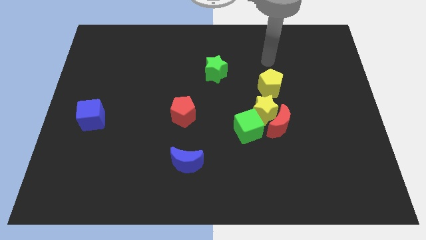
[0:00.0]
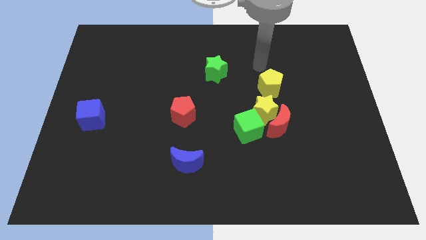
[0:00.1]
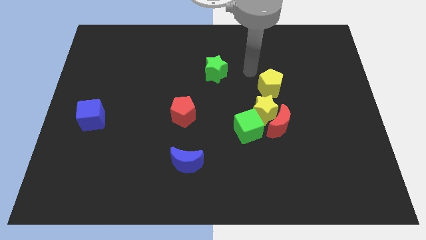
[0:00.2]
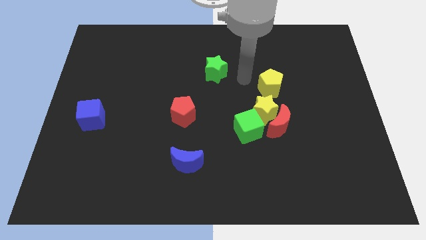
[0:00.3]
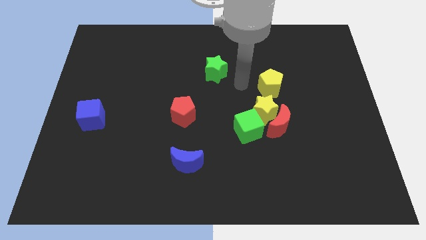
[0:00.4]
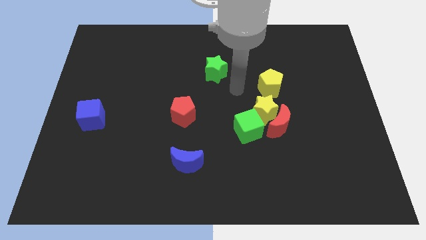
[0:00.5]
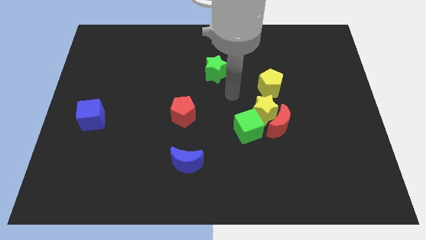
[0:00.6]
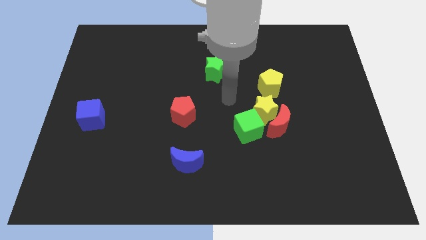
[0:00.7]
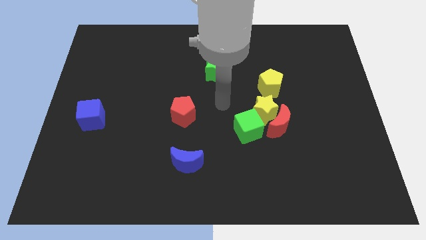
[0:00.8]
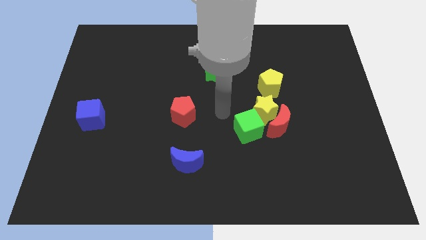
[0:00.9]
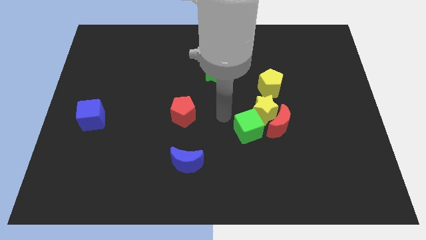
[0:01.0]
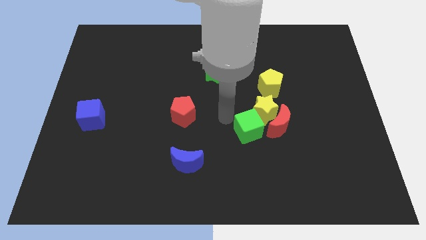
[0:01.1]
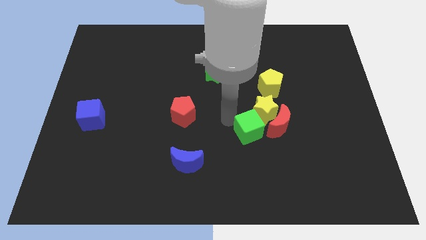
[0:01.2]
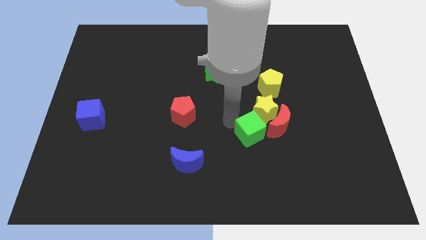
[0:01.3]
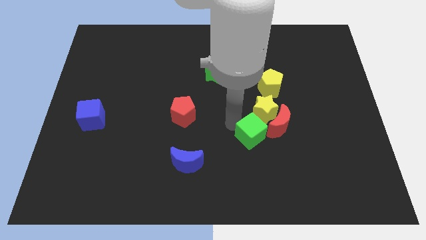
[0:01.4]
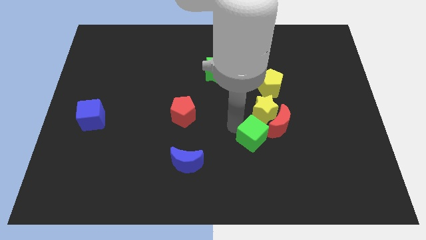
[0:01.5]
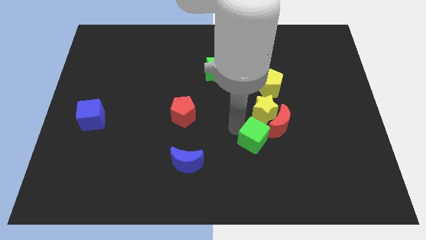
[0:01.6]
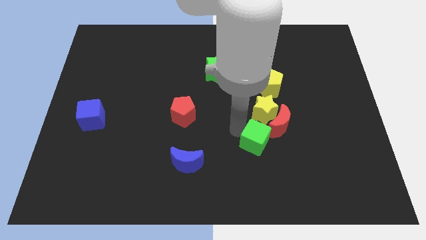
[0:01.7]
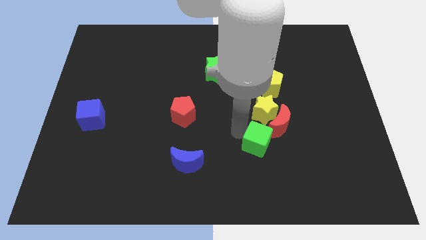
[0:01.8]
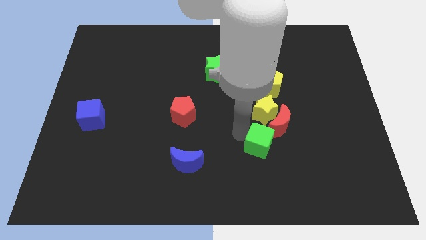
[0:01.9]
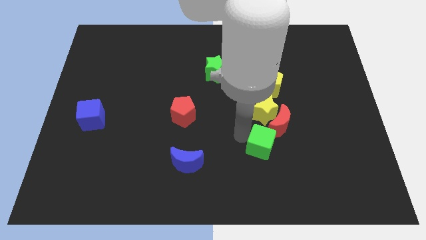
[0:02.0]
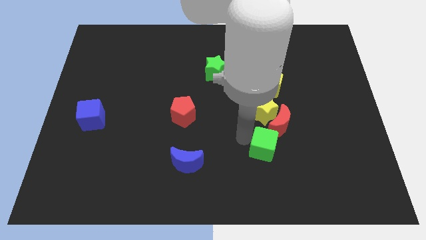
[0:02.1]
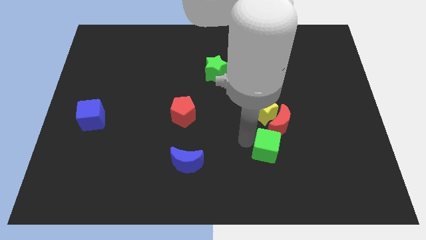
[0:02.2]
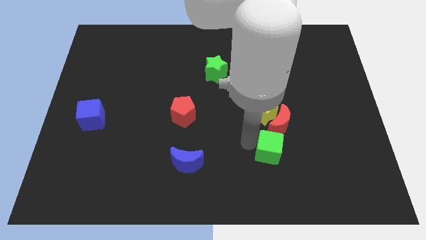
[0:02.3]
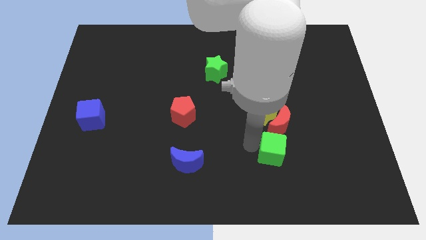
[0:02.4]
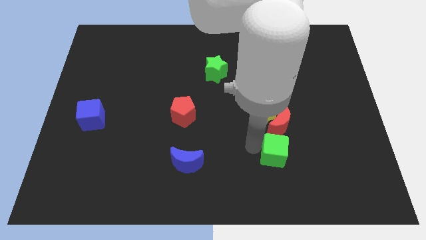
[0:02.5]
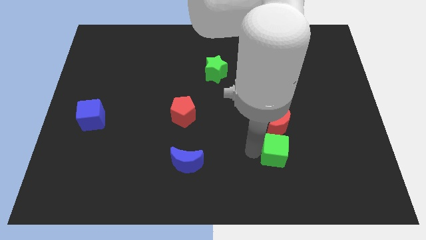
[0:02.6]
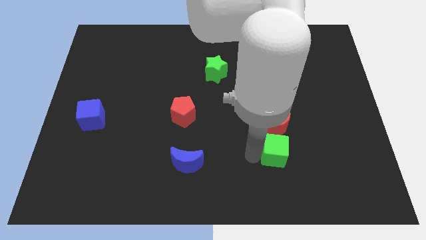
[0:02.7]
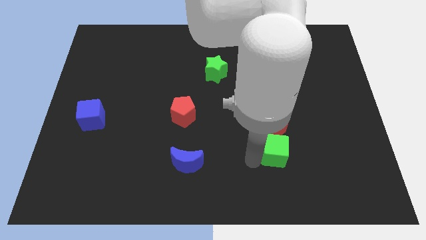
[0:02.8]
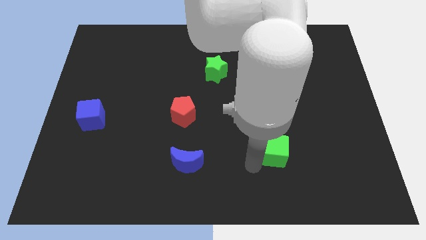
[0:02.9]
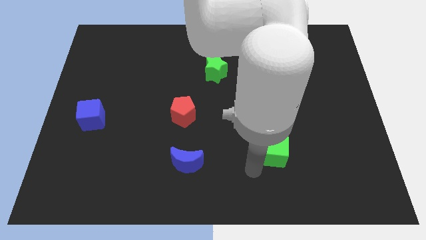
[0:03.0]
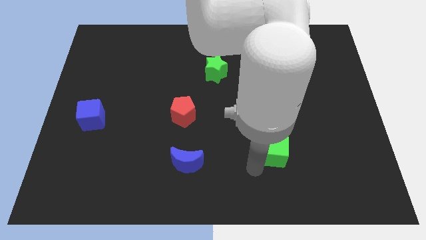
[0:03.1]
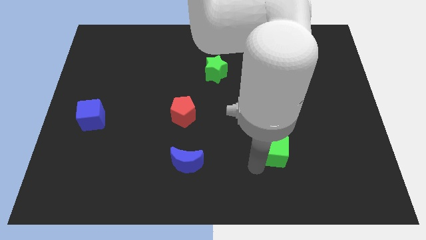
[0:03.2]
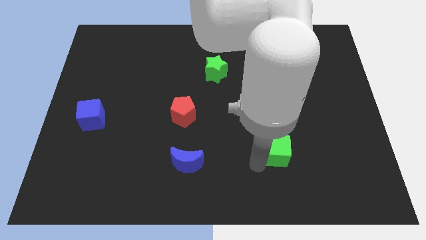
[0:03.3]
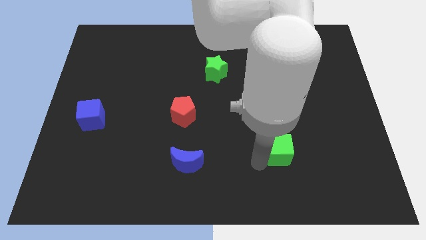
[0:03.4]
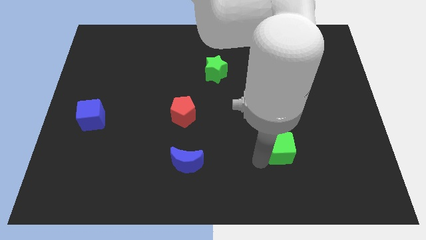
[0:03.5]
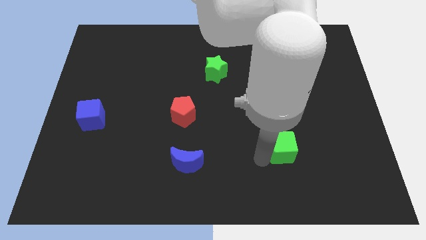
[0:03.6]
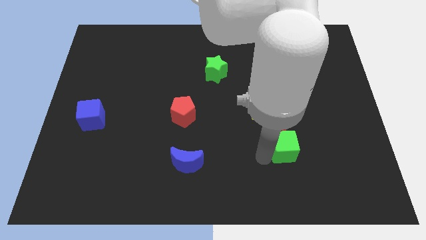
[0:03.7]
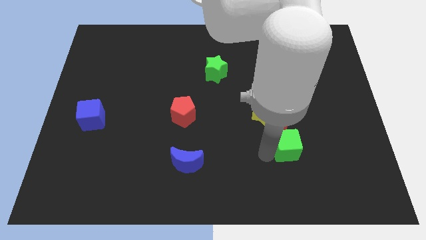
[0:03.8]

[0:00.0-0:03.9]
push the green cube right a little

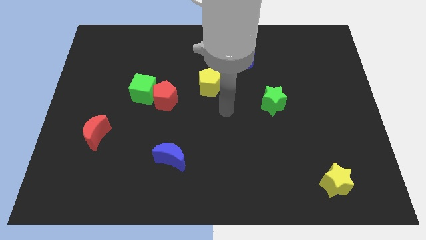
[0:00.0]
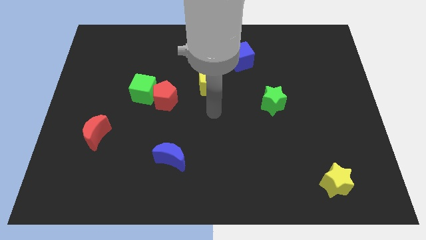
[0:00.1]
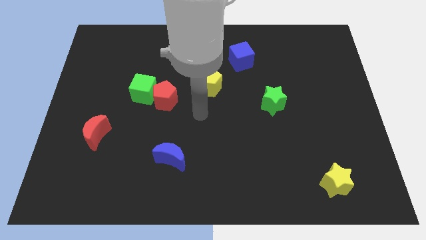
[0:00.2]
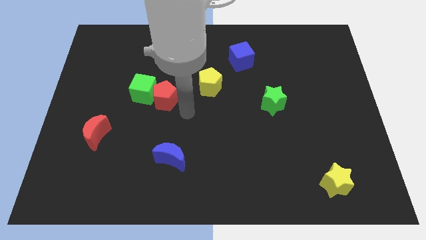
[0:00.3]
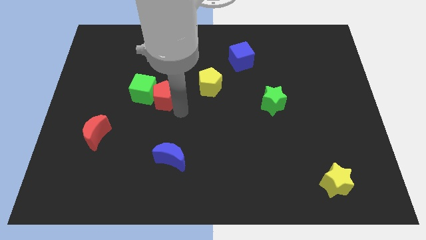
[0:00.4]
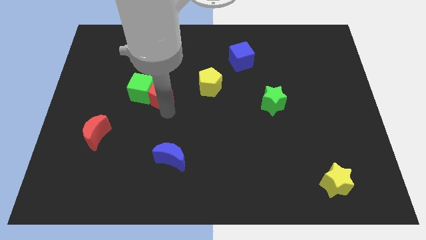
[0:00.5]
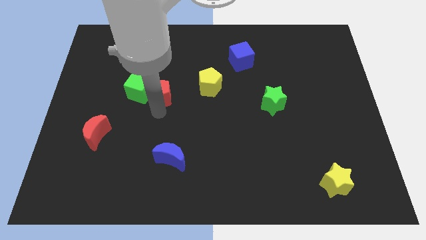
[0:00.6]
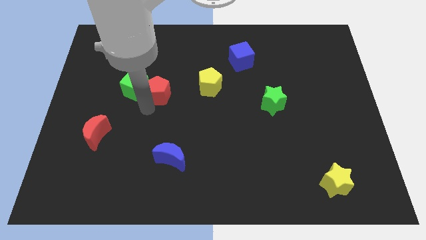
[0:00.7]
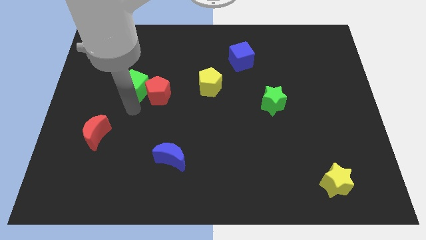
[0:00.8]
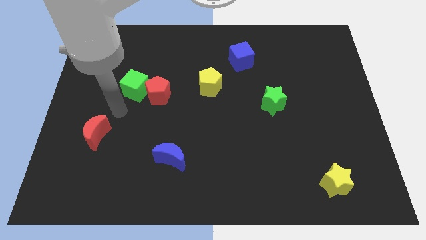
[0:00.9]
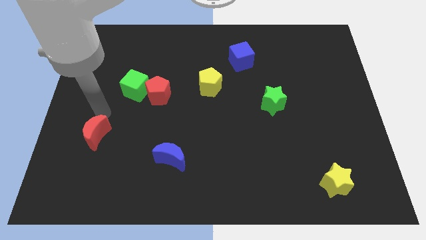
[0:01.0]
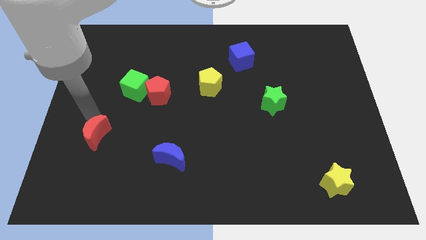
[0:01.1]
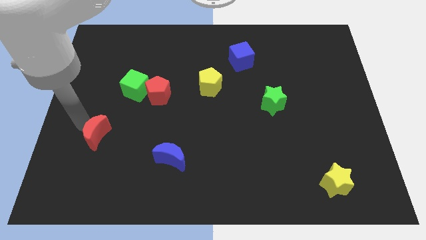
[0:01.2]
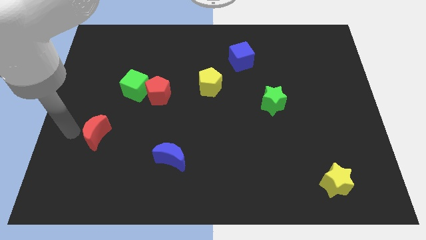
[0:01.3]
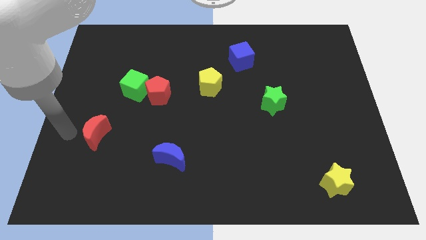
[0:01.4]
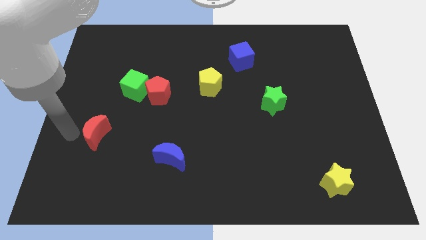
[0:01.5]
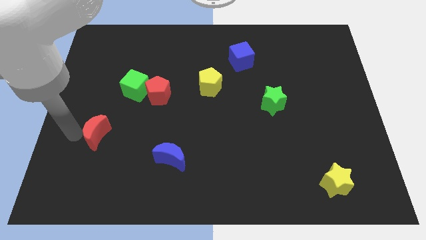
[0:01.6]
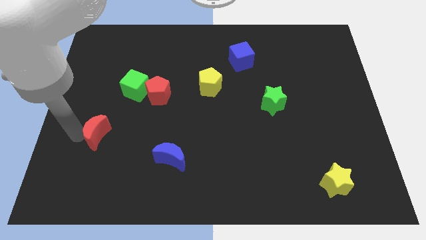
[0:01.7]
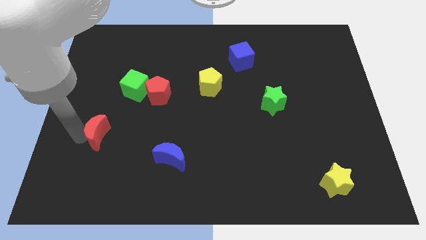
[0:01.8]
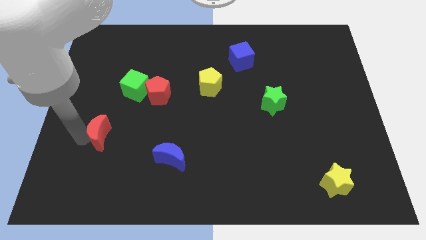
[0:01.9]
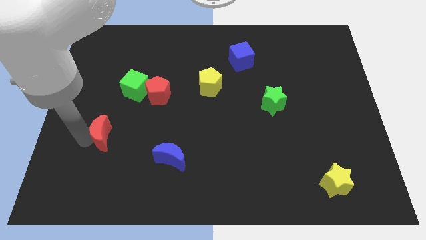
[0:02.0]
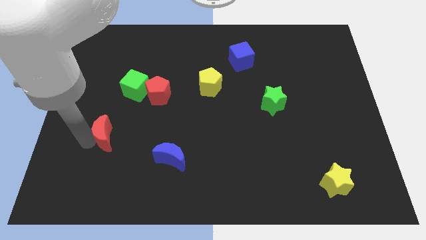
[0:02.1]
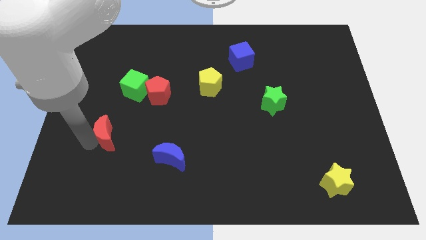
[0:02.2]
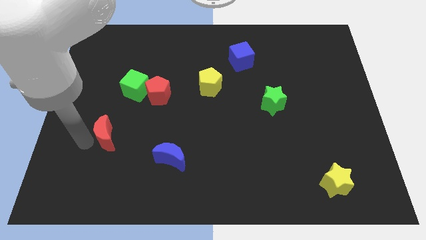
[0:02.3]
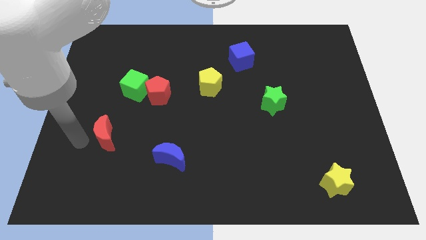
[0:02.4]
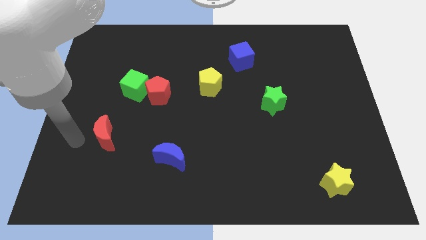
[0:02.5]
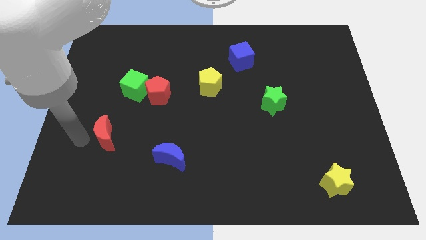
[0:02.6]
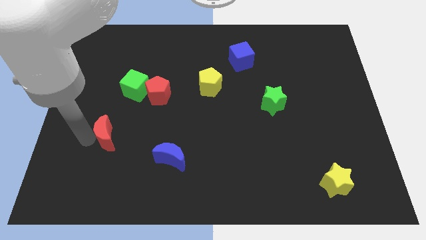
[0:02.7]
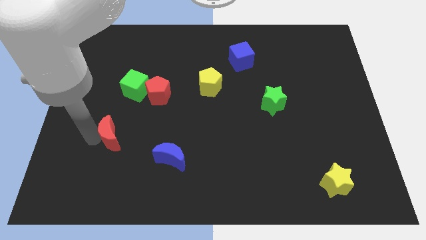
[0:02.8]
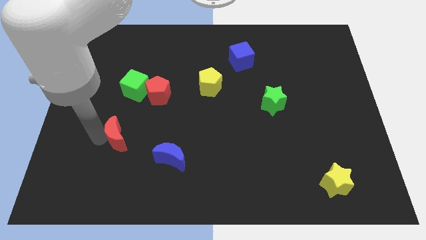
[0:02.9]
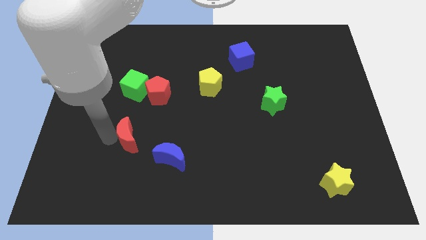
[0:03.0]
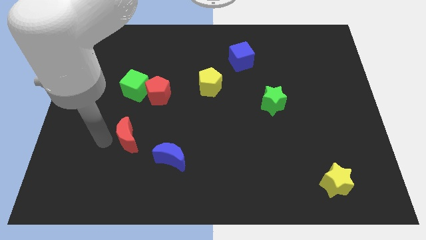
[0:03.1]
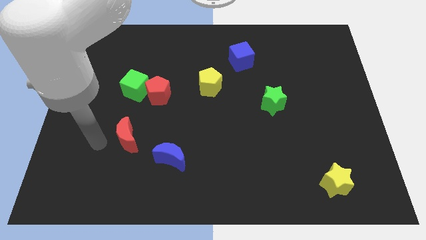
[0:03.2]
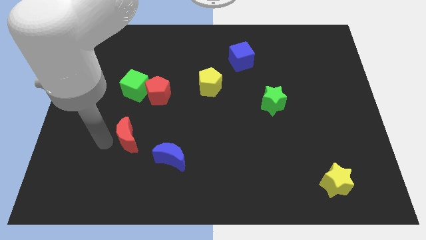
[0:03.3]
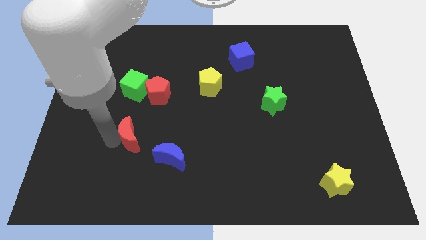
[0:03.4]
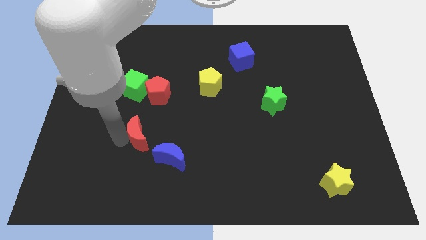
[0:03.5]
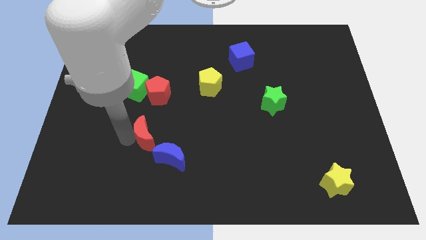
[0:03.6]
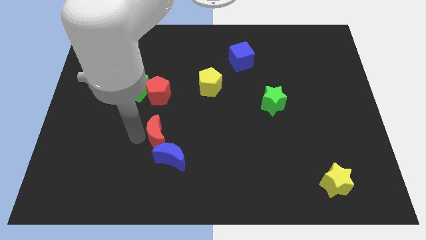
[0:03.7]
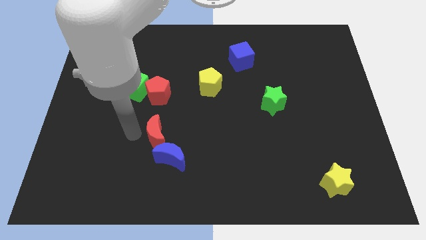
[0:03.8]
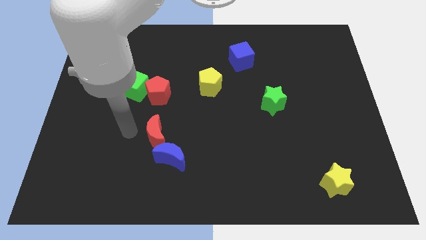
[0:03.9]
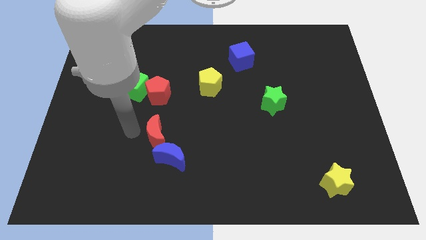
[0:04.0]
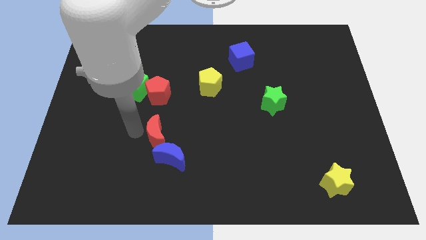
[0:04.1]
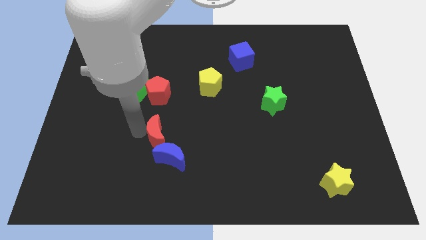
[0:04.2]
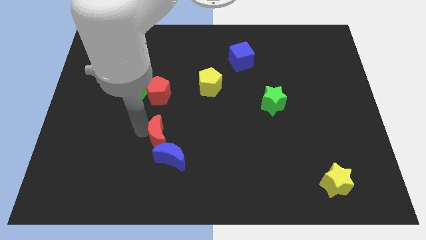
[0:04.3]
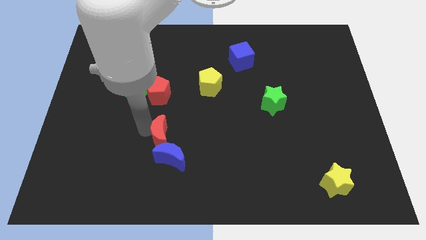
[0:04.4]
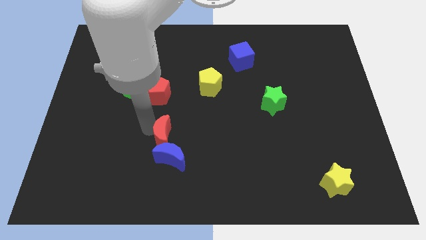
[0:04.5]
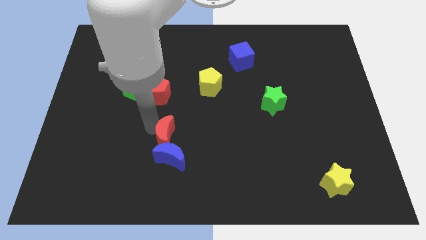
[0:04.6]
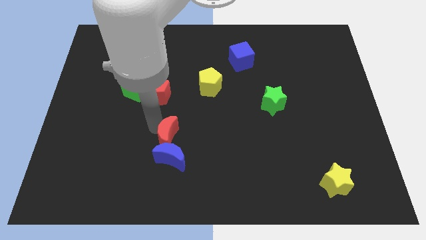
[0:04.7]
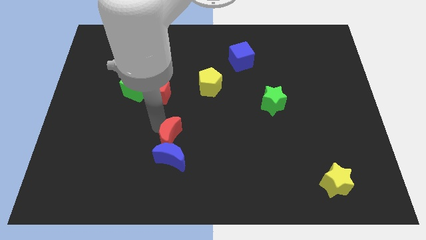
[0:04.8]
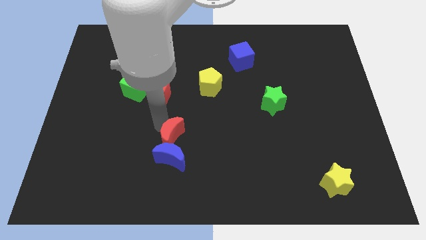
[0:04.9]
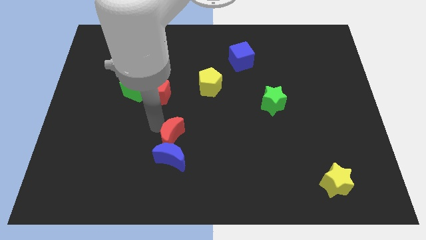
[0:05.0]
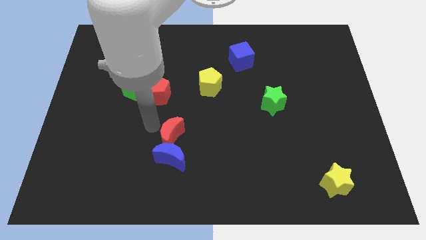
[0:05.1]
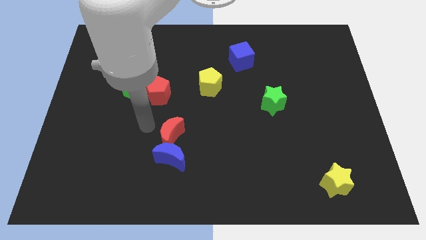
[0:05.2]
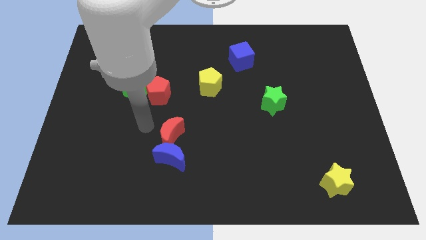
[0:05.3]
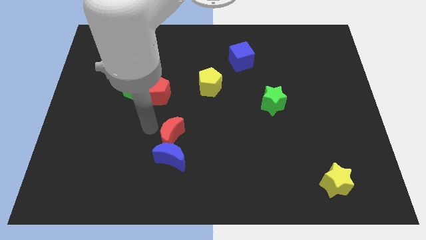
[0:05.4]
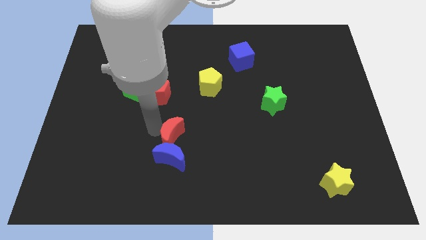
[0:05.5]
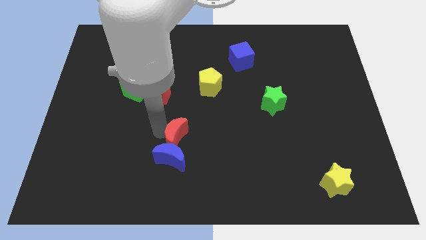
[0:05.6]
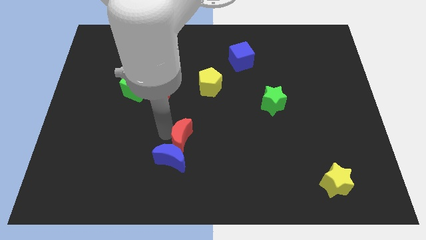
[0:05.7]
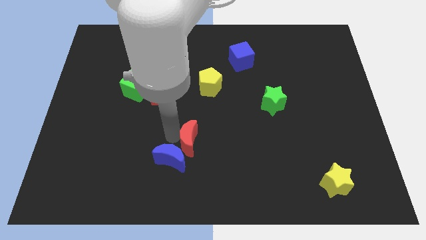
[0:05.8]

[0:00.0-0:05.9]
move the red moon to the right
